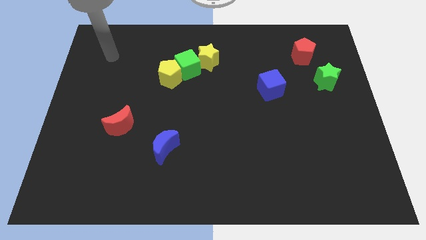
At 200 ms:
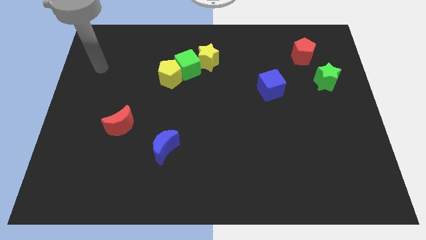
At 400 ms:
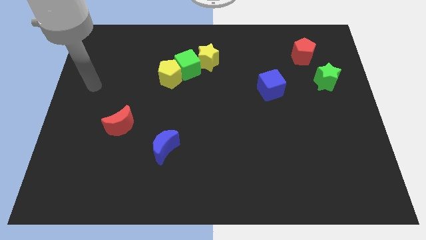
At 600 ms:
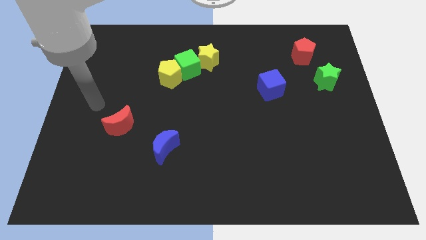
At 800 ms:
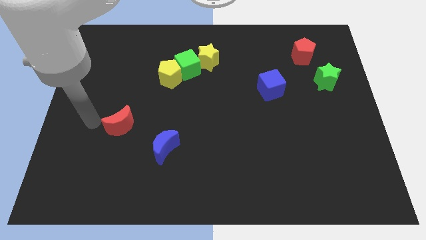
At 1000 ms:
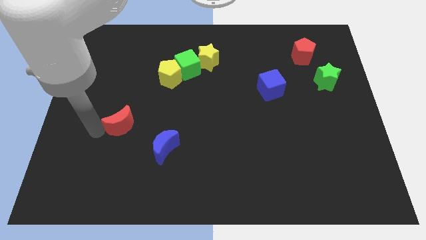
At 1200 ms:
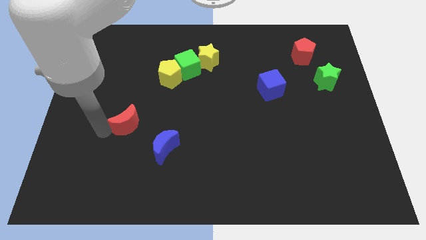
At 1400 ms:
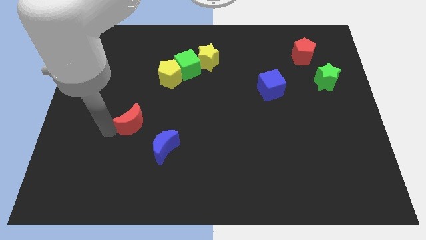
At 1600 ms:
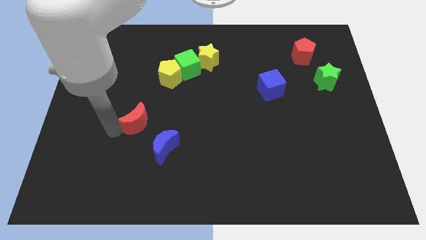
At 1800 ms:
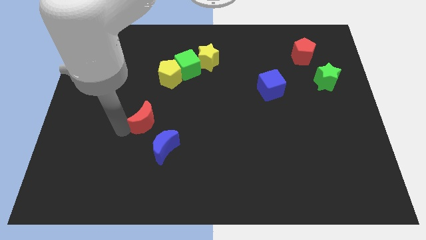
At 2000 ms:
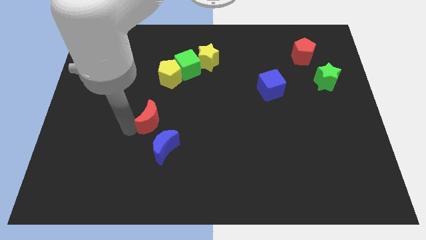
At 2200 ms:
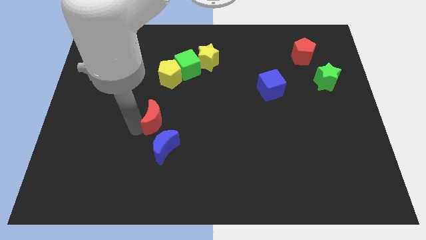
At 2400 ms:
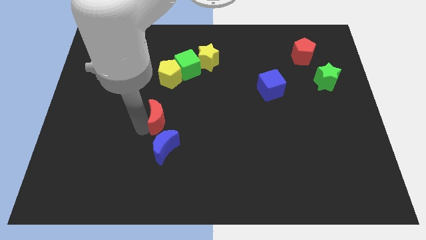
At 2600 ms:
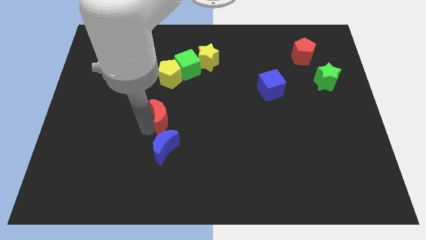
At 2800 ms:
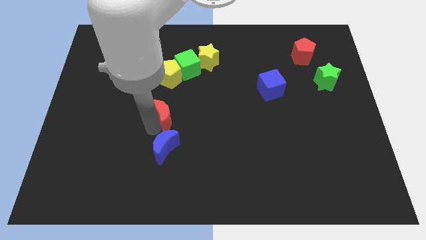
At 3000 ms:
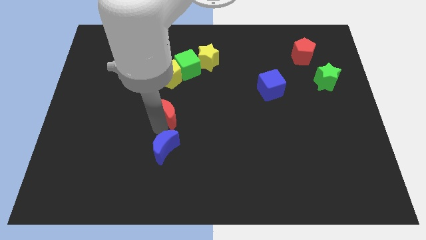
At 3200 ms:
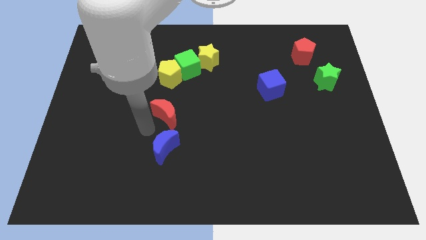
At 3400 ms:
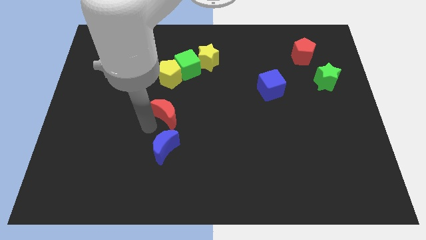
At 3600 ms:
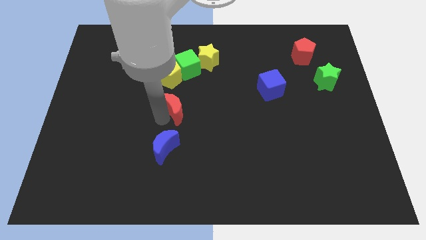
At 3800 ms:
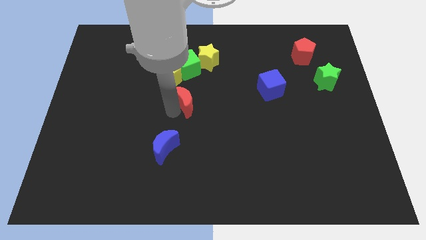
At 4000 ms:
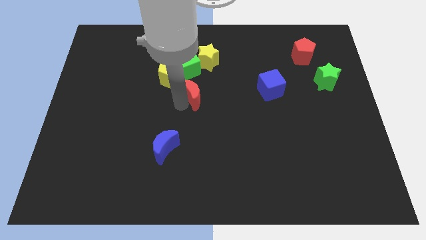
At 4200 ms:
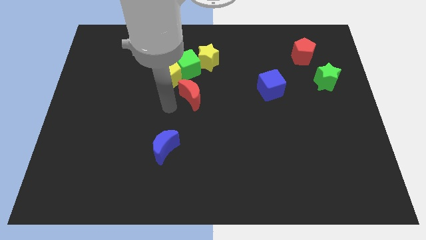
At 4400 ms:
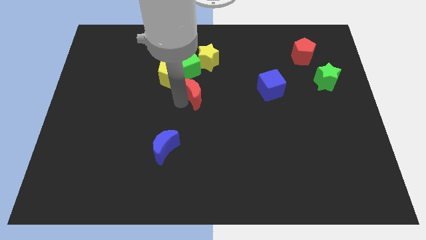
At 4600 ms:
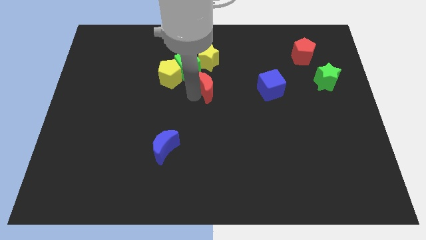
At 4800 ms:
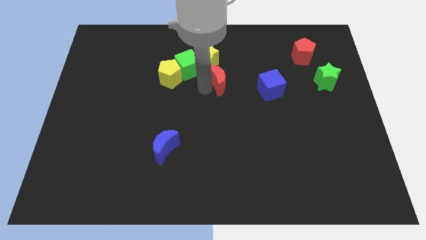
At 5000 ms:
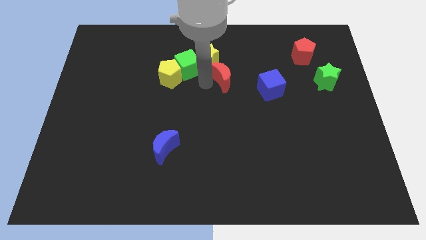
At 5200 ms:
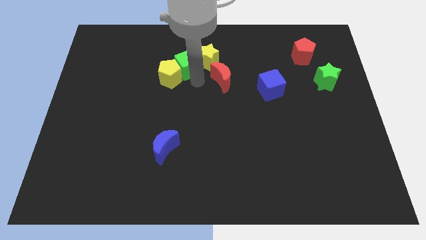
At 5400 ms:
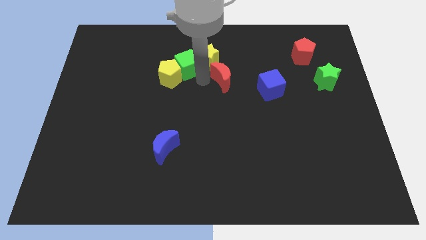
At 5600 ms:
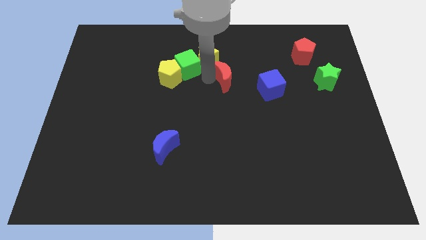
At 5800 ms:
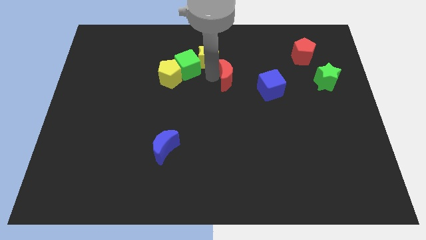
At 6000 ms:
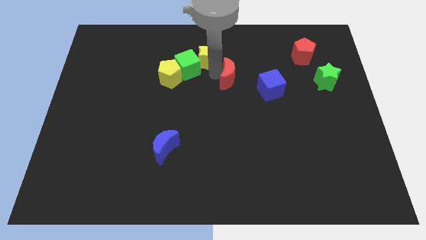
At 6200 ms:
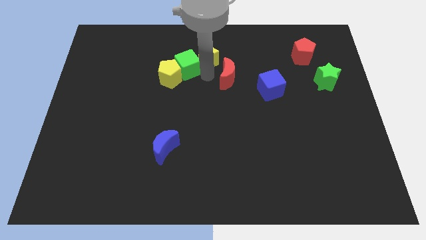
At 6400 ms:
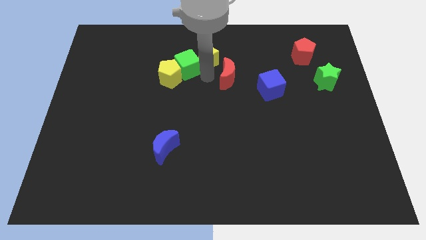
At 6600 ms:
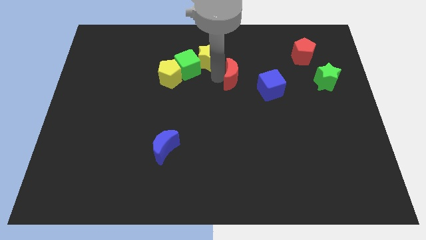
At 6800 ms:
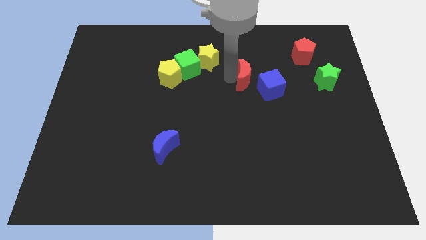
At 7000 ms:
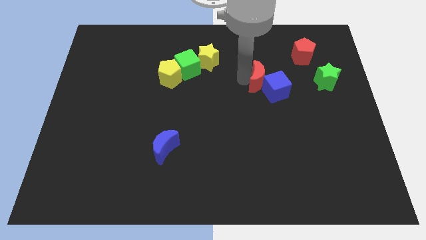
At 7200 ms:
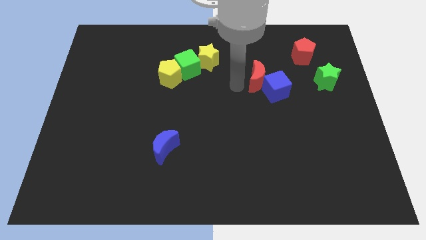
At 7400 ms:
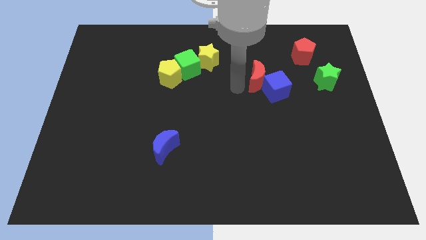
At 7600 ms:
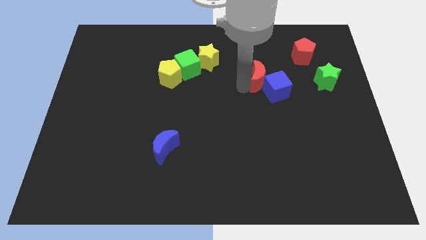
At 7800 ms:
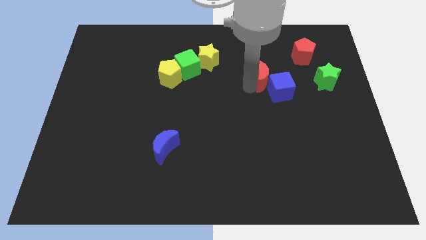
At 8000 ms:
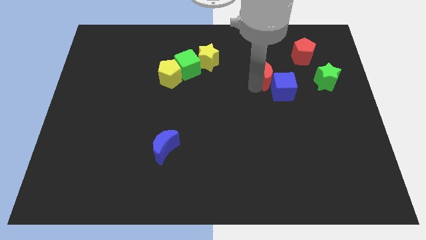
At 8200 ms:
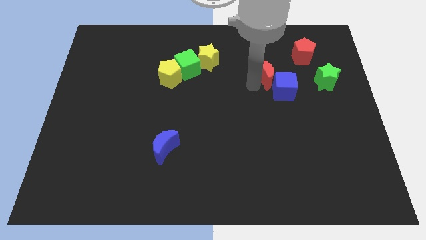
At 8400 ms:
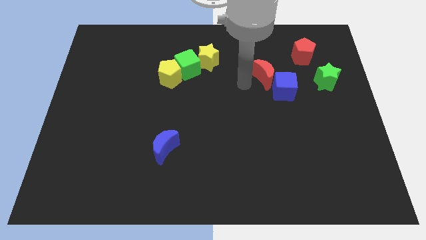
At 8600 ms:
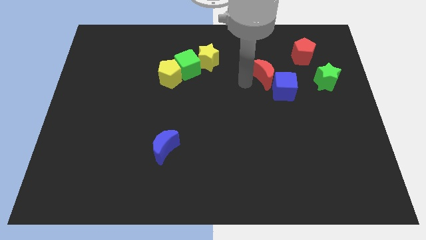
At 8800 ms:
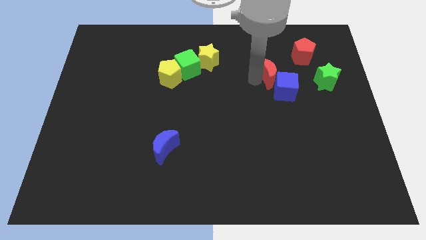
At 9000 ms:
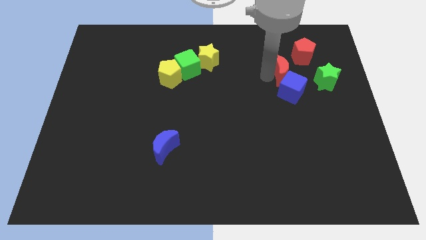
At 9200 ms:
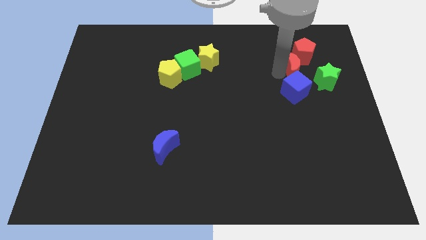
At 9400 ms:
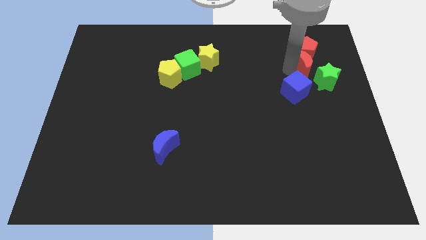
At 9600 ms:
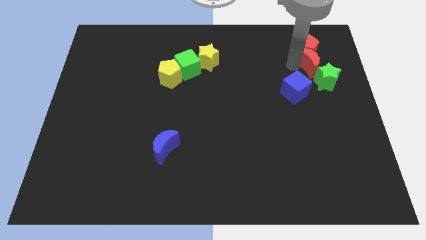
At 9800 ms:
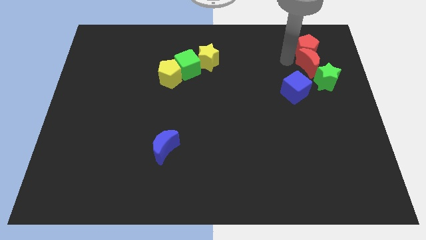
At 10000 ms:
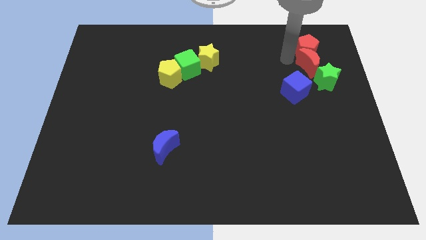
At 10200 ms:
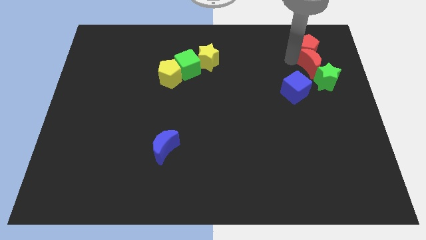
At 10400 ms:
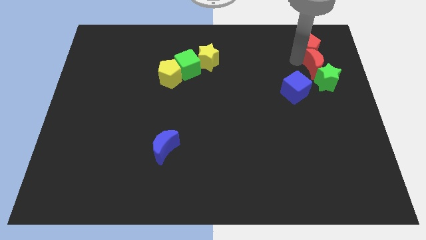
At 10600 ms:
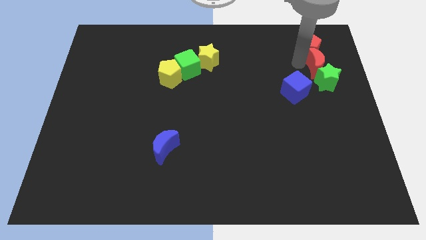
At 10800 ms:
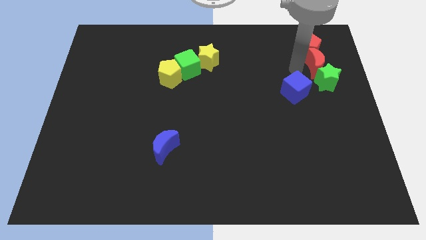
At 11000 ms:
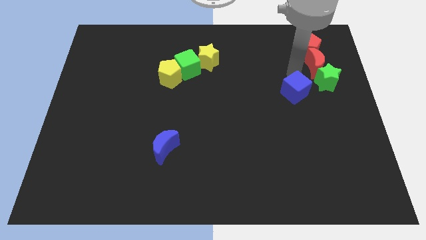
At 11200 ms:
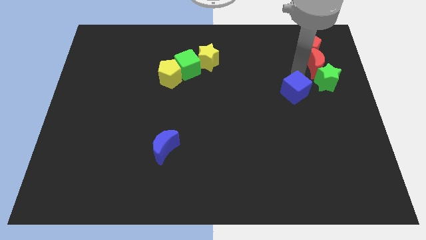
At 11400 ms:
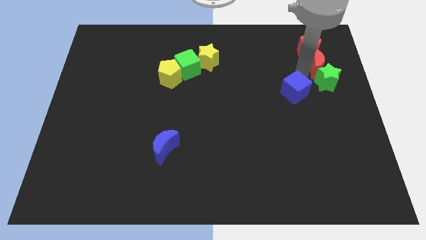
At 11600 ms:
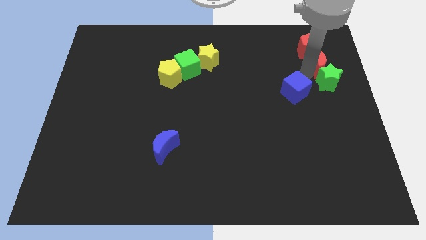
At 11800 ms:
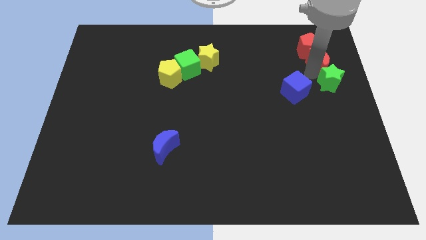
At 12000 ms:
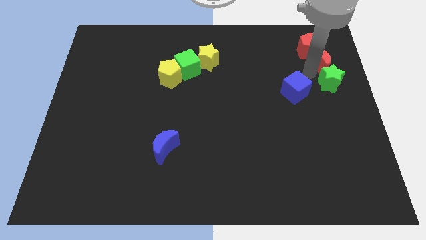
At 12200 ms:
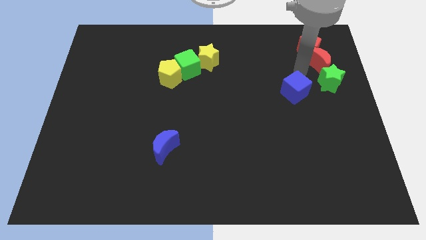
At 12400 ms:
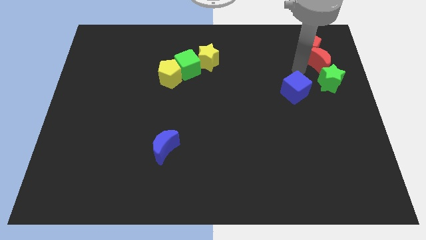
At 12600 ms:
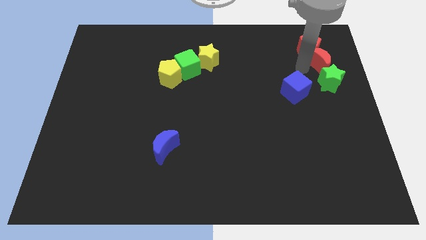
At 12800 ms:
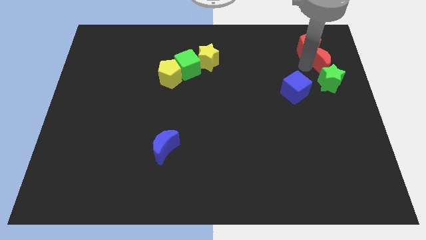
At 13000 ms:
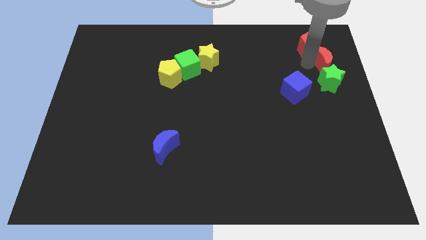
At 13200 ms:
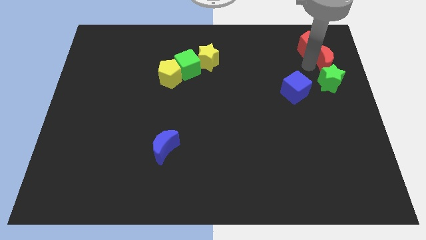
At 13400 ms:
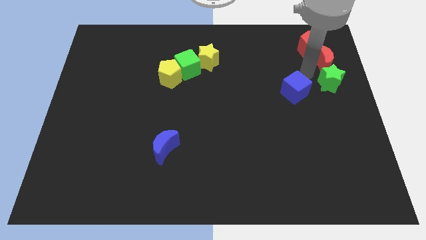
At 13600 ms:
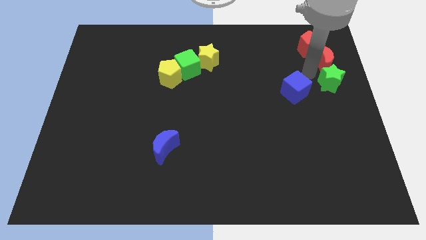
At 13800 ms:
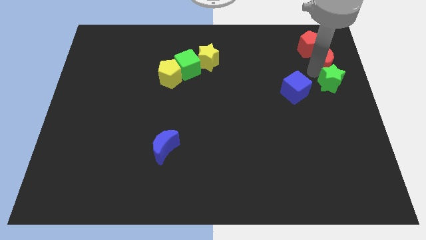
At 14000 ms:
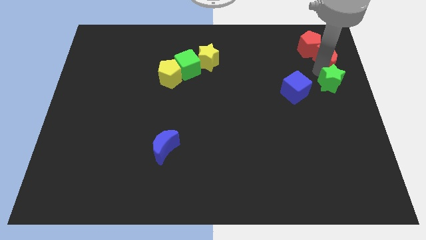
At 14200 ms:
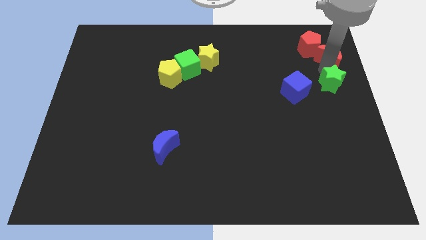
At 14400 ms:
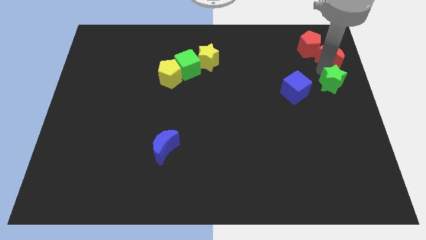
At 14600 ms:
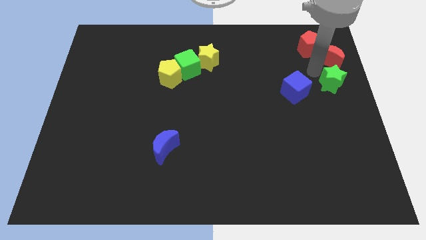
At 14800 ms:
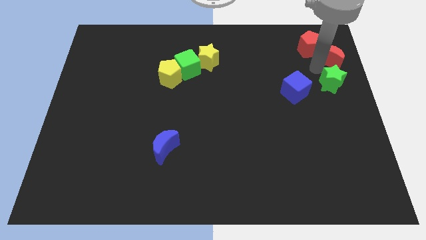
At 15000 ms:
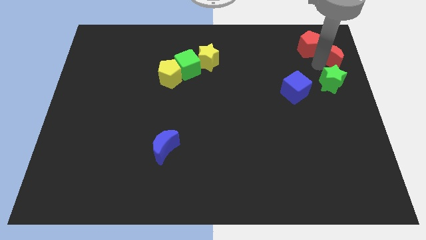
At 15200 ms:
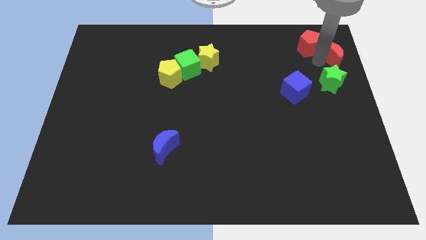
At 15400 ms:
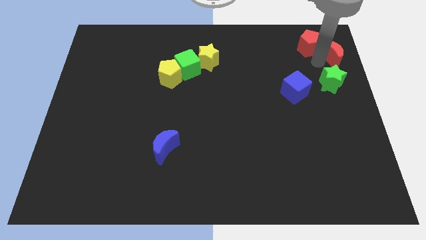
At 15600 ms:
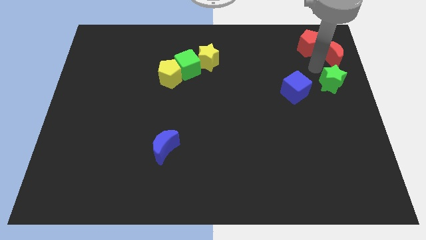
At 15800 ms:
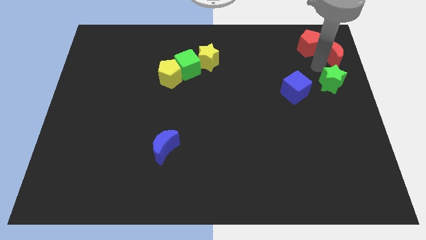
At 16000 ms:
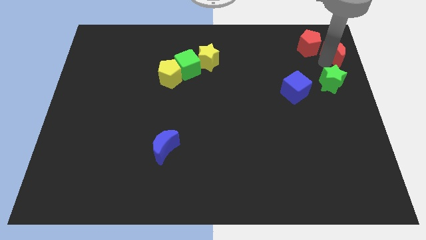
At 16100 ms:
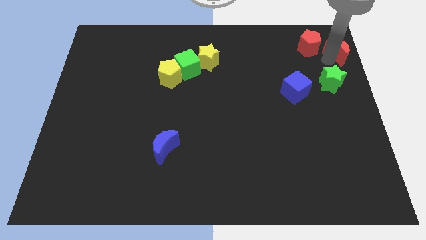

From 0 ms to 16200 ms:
slide the red moon to the top right of the board
